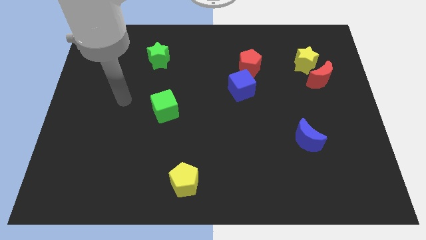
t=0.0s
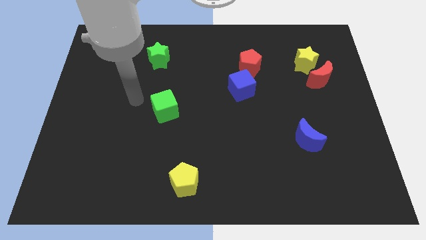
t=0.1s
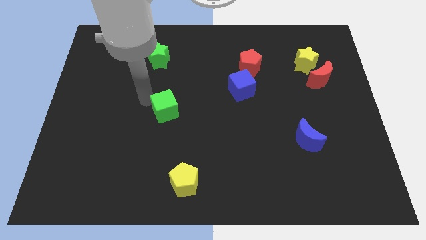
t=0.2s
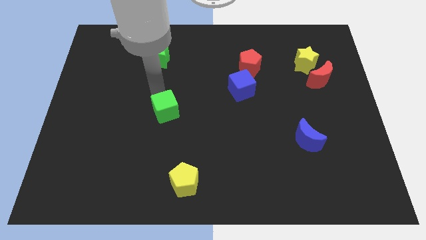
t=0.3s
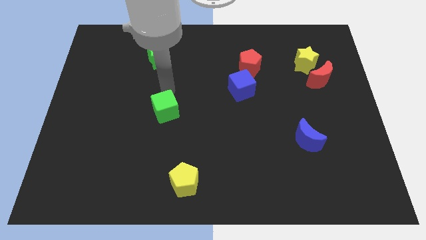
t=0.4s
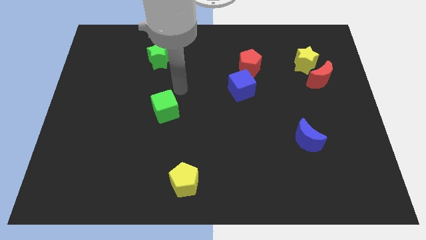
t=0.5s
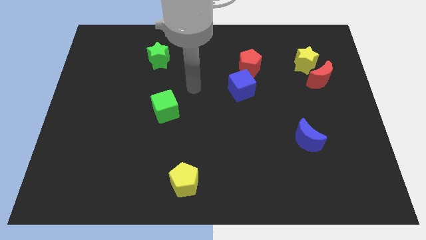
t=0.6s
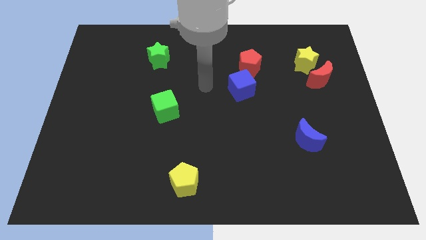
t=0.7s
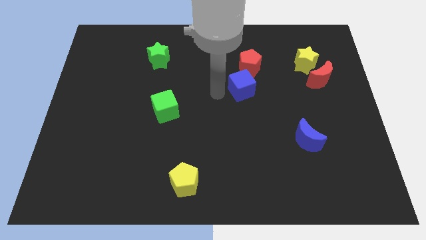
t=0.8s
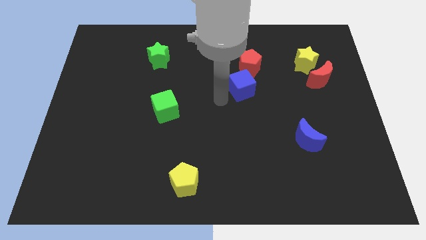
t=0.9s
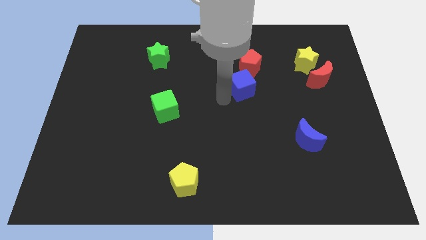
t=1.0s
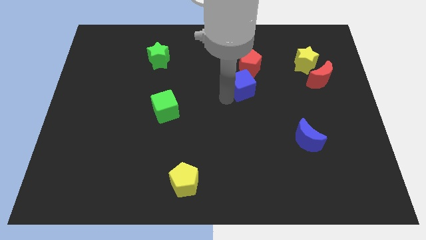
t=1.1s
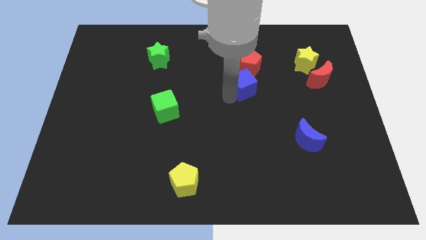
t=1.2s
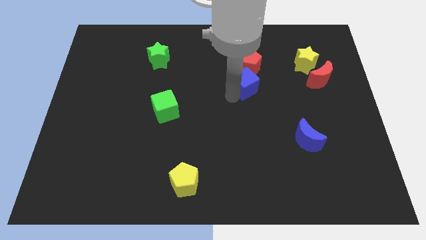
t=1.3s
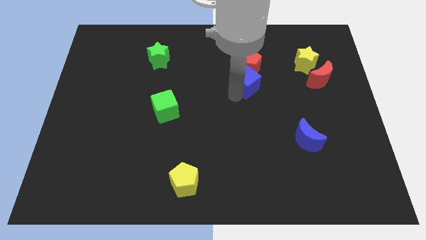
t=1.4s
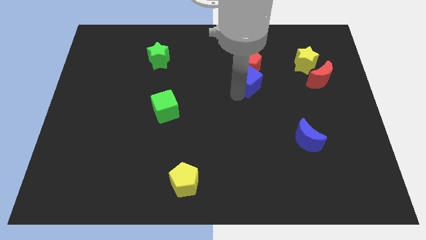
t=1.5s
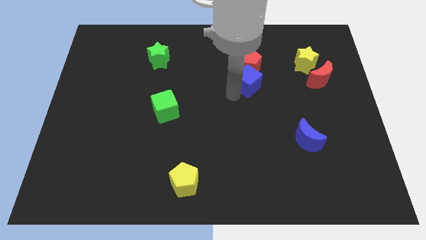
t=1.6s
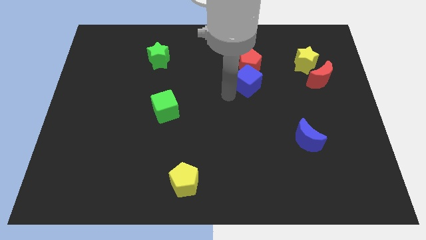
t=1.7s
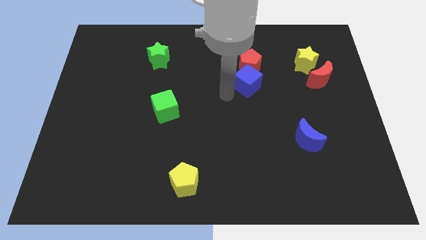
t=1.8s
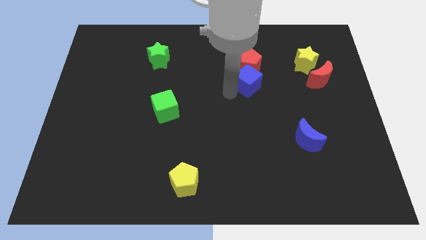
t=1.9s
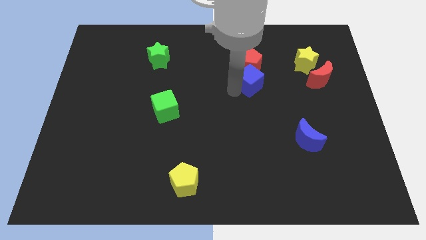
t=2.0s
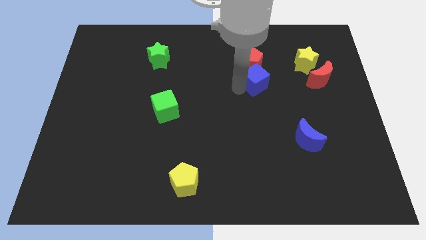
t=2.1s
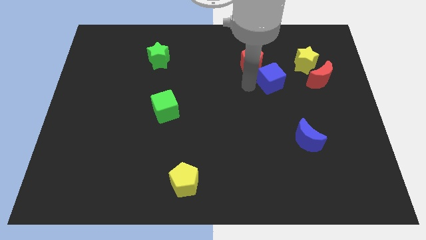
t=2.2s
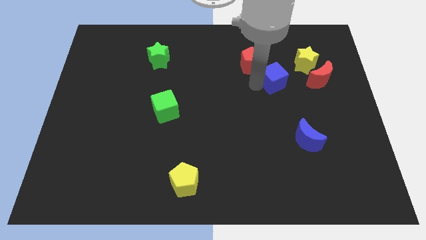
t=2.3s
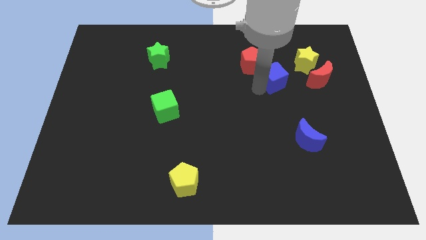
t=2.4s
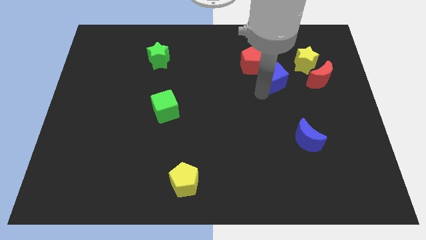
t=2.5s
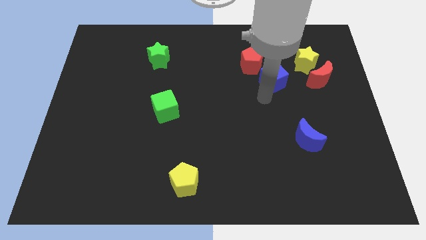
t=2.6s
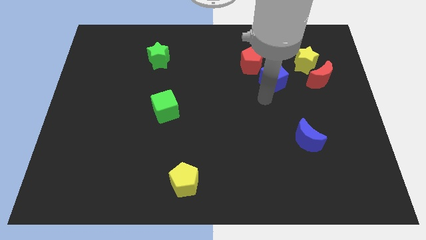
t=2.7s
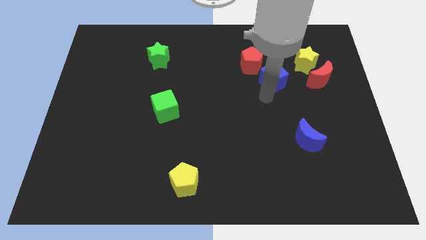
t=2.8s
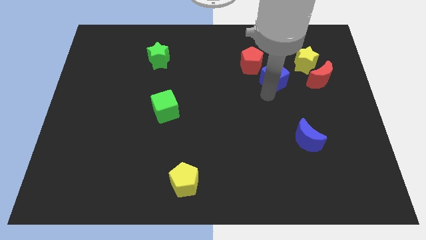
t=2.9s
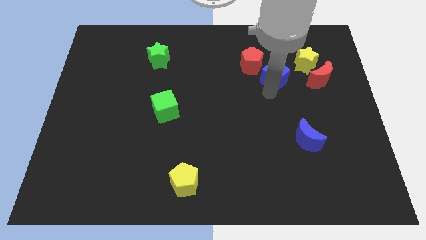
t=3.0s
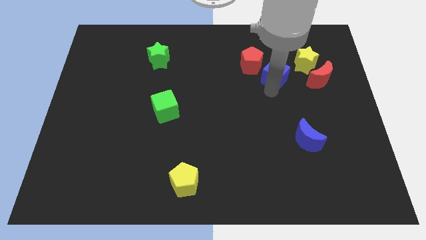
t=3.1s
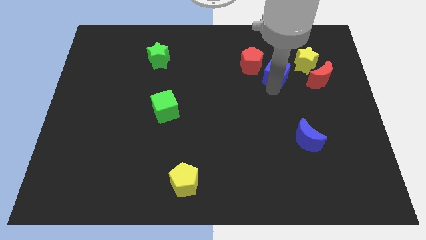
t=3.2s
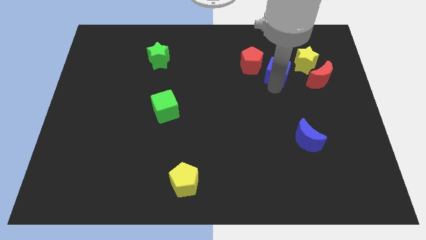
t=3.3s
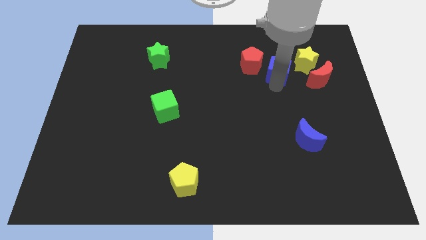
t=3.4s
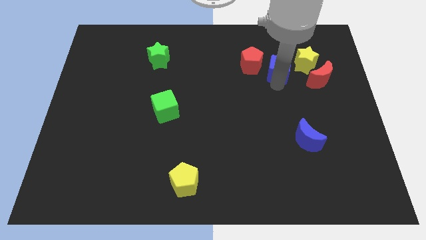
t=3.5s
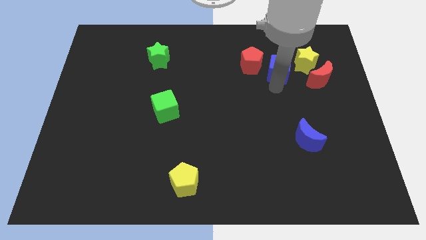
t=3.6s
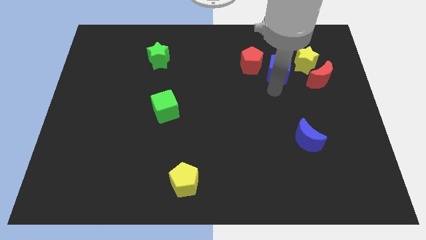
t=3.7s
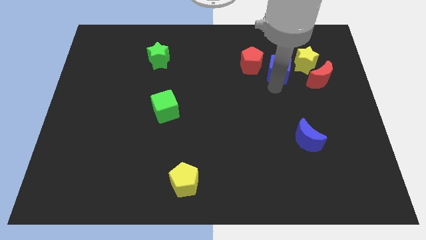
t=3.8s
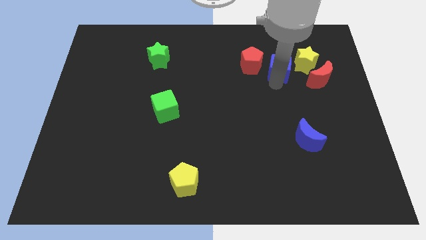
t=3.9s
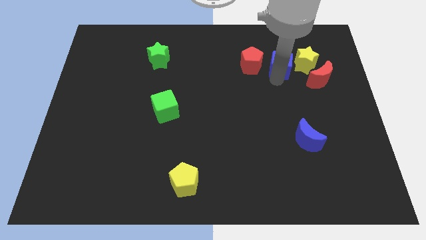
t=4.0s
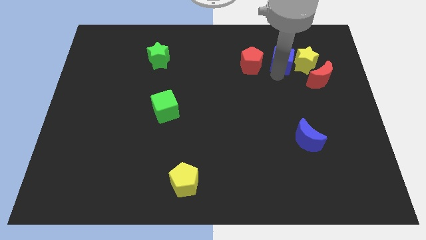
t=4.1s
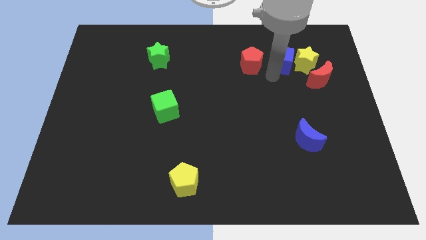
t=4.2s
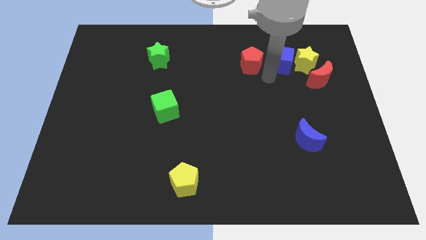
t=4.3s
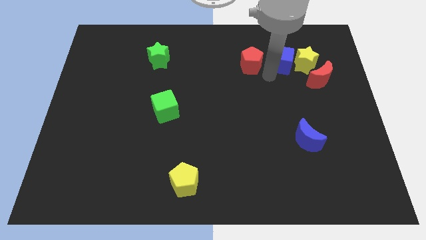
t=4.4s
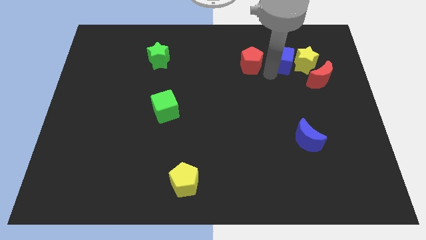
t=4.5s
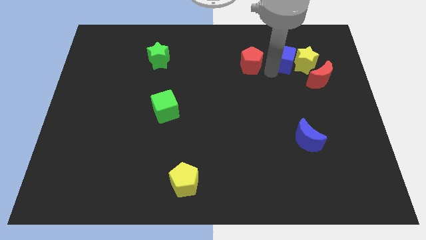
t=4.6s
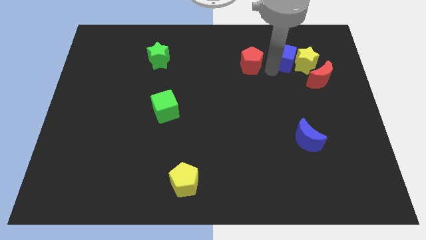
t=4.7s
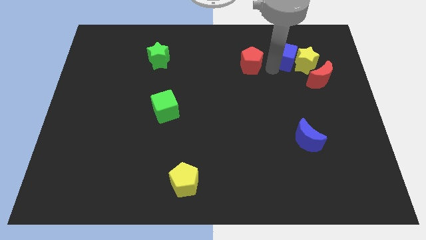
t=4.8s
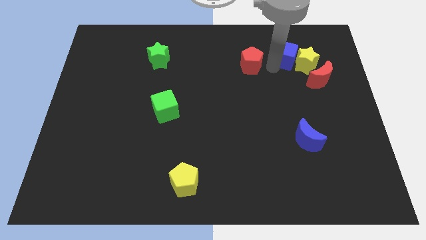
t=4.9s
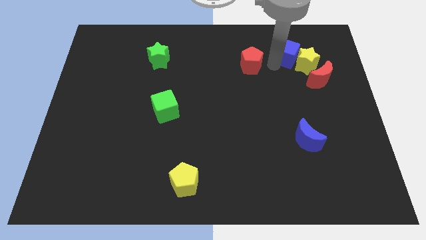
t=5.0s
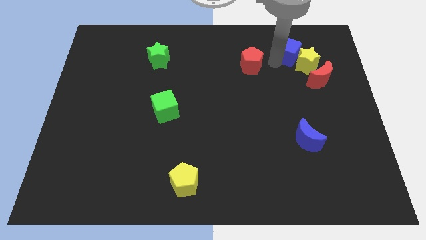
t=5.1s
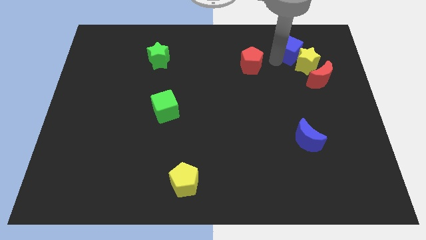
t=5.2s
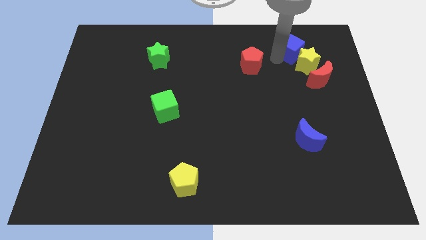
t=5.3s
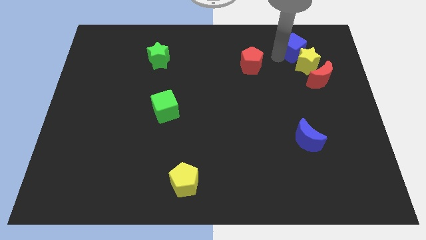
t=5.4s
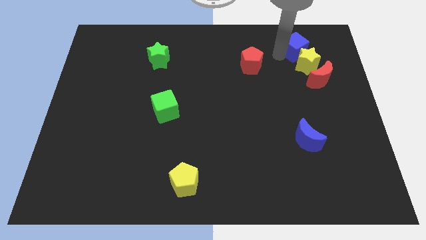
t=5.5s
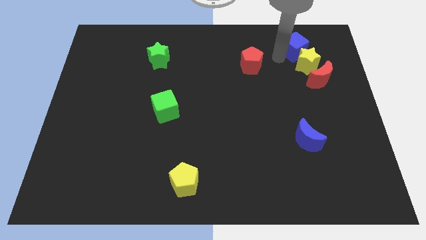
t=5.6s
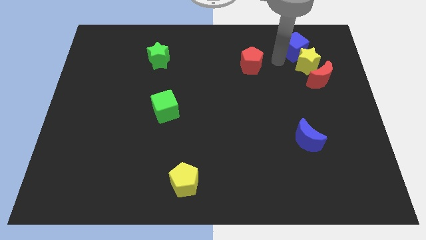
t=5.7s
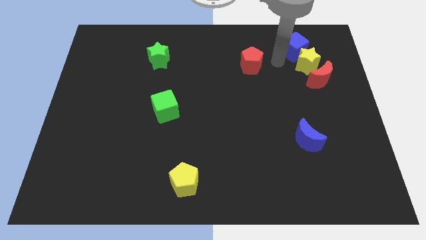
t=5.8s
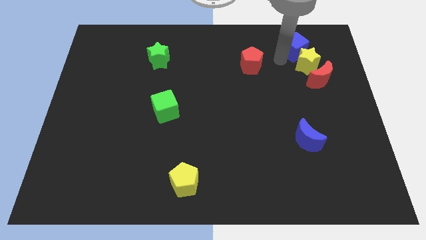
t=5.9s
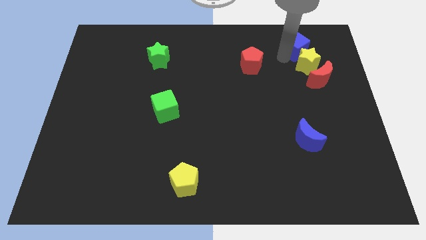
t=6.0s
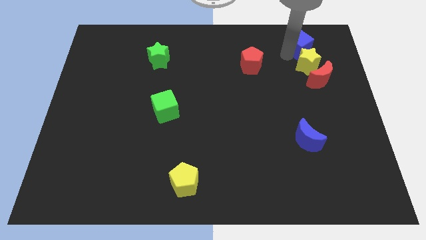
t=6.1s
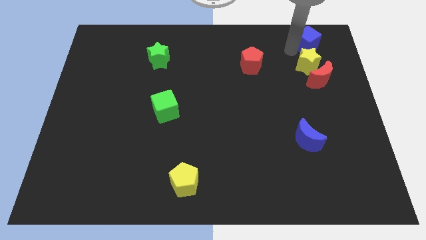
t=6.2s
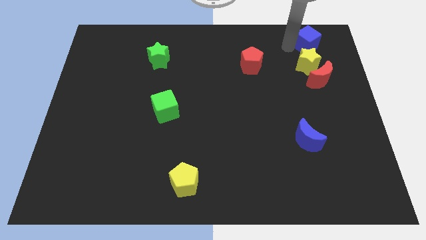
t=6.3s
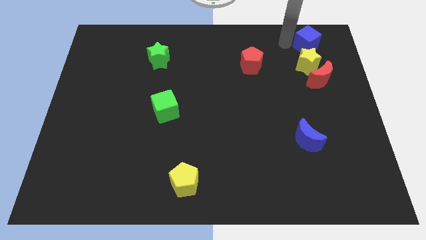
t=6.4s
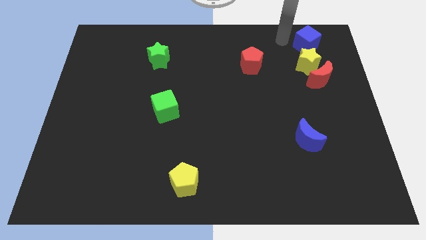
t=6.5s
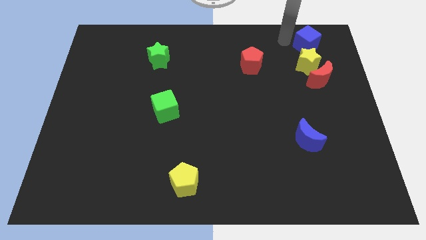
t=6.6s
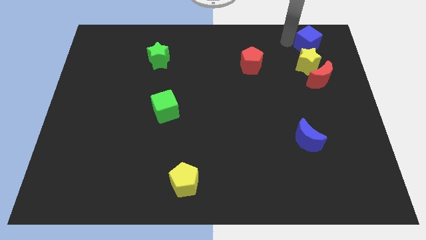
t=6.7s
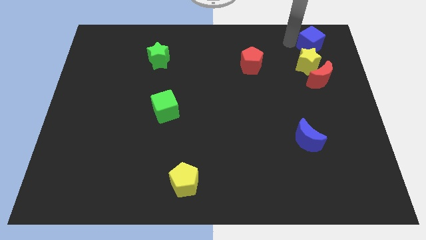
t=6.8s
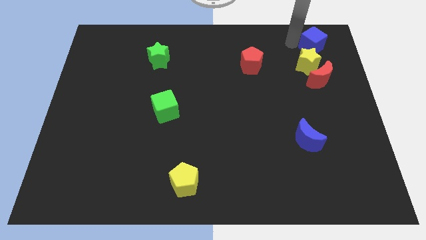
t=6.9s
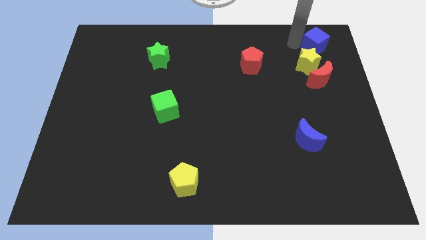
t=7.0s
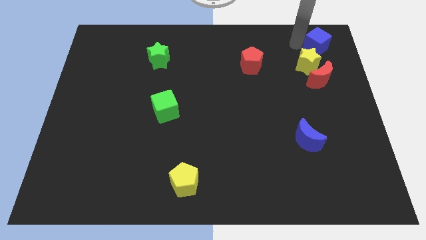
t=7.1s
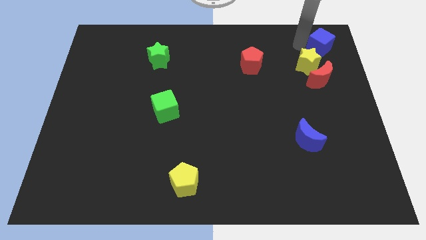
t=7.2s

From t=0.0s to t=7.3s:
push the blue cube to the top right corner
